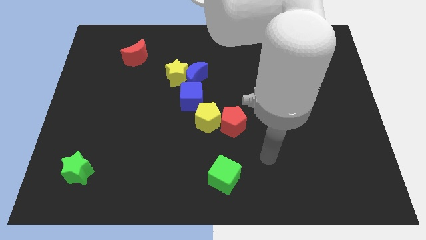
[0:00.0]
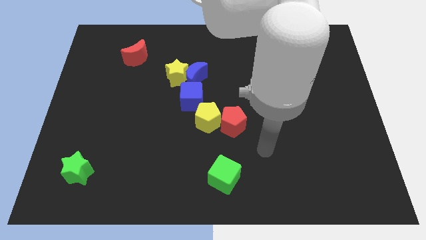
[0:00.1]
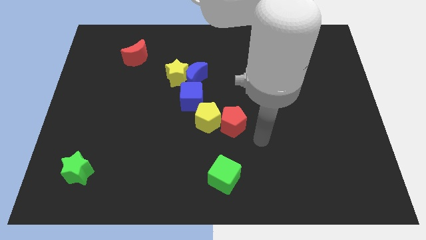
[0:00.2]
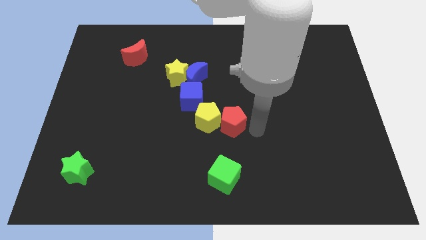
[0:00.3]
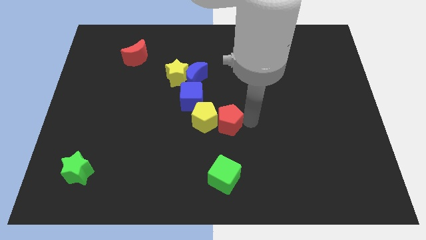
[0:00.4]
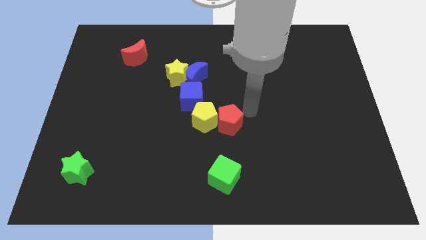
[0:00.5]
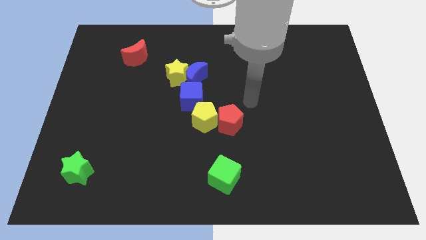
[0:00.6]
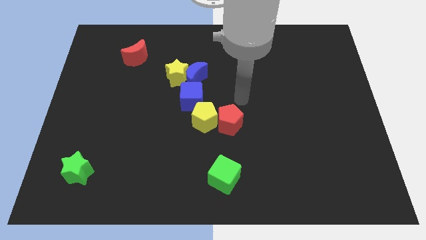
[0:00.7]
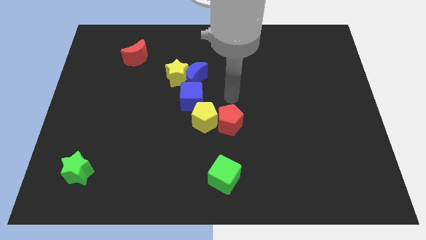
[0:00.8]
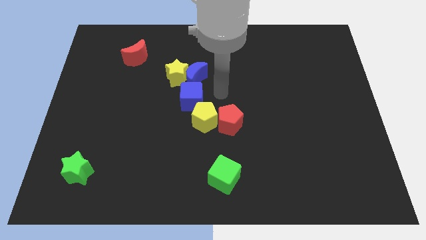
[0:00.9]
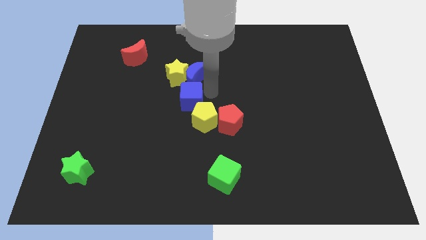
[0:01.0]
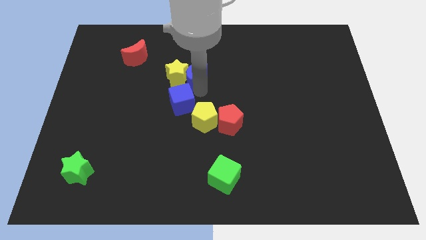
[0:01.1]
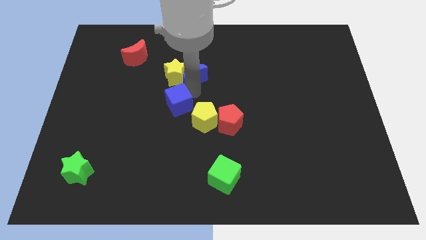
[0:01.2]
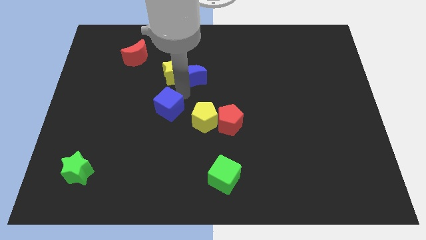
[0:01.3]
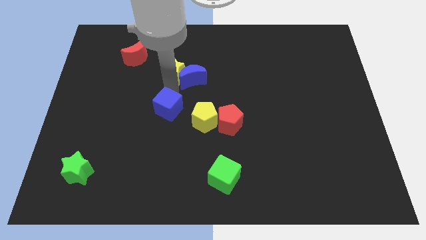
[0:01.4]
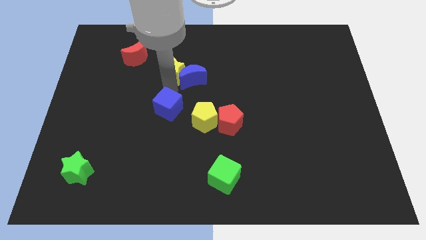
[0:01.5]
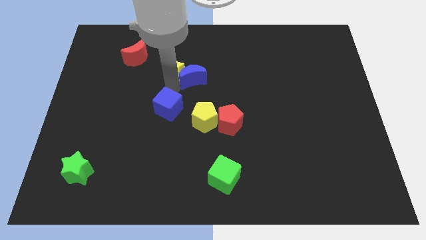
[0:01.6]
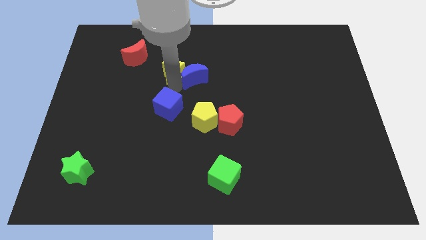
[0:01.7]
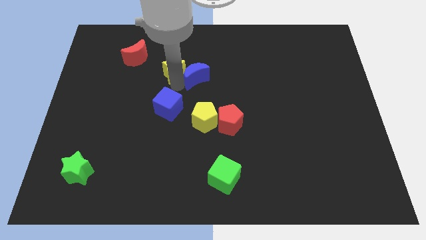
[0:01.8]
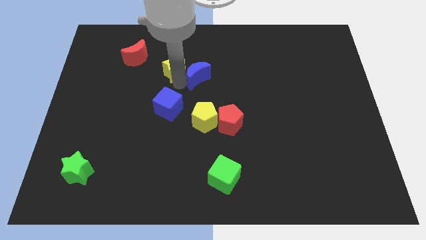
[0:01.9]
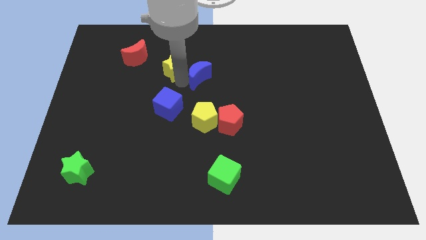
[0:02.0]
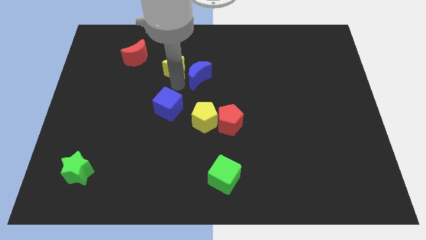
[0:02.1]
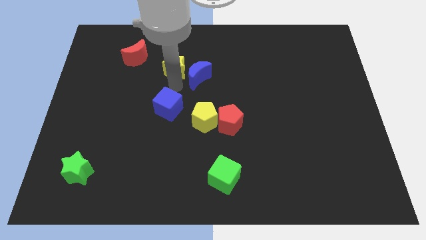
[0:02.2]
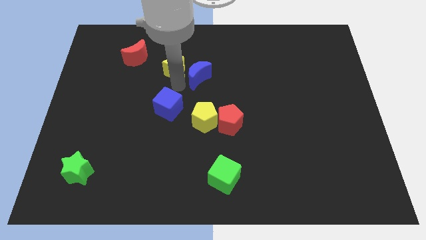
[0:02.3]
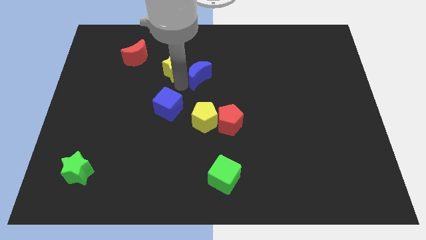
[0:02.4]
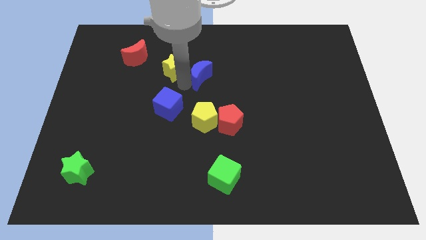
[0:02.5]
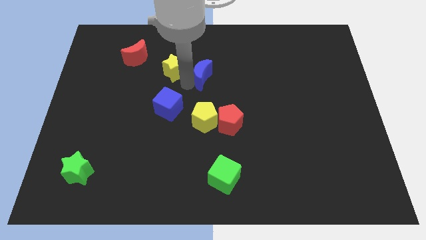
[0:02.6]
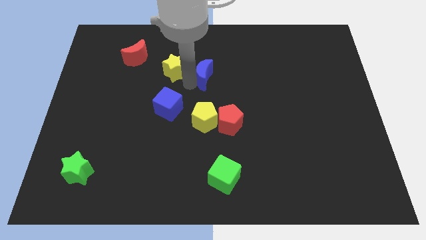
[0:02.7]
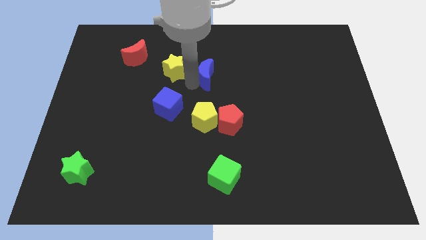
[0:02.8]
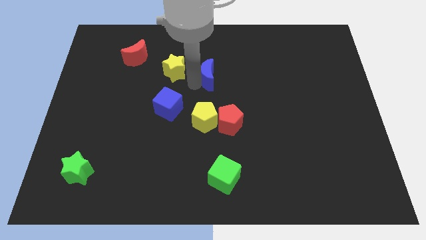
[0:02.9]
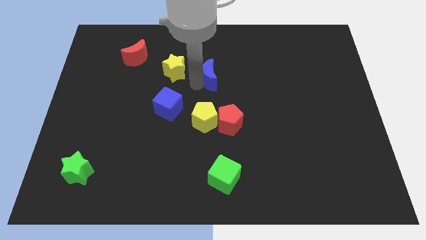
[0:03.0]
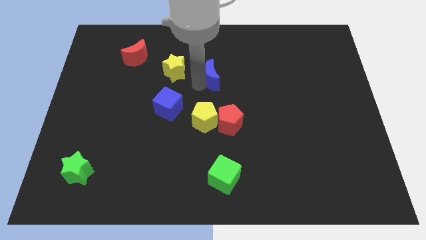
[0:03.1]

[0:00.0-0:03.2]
separate the blue moon from the yellow star and blue cube

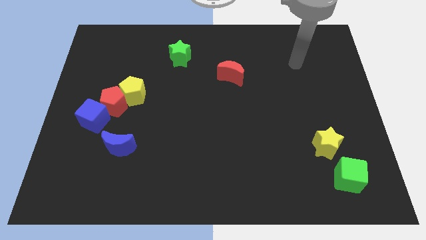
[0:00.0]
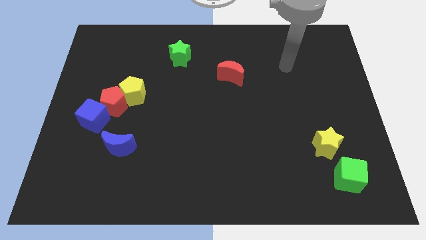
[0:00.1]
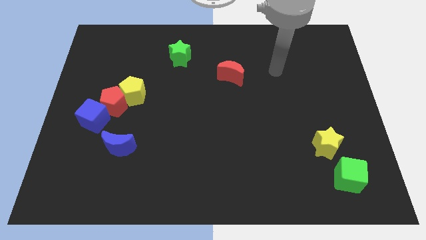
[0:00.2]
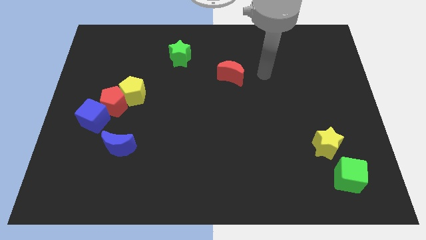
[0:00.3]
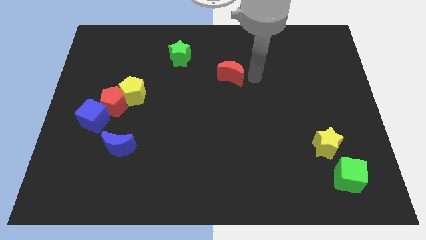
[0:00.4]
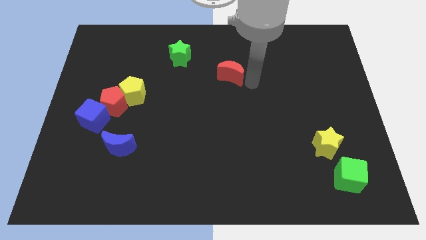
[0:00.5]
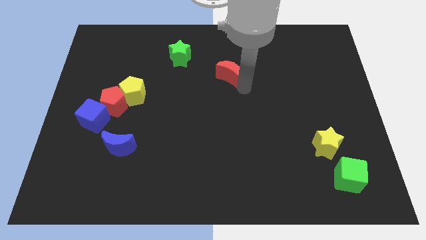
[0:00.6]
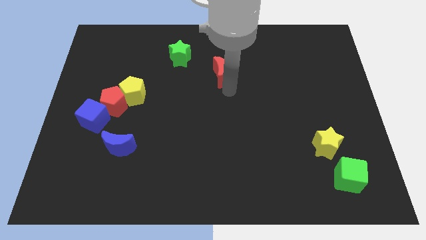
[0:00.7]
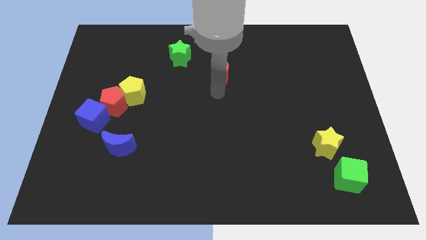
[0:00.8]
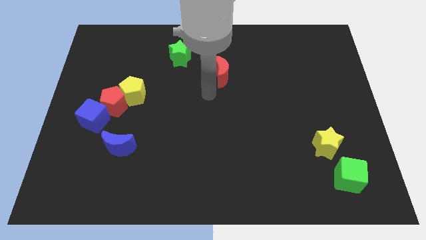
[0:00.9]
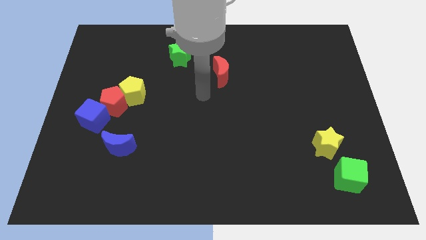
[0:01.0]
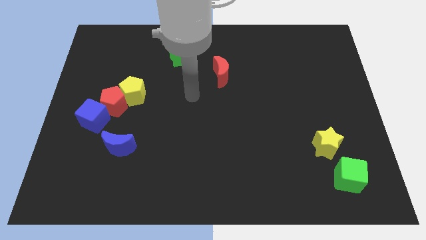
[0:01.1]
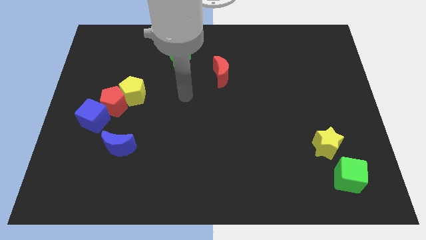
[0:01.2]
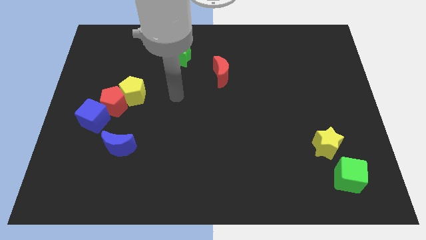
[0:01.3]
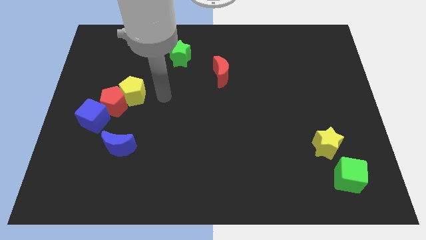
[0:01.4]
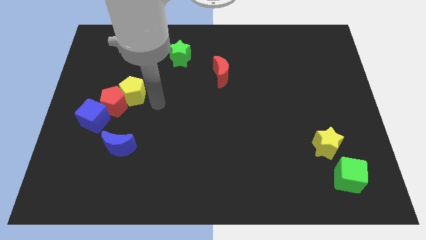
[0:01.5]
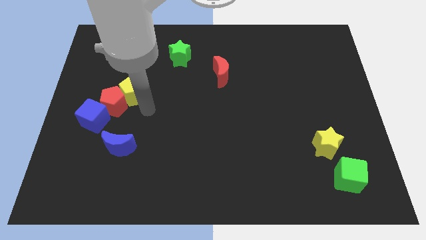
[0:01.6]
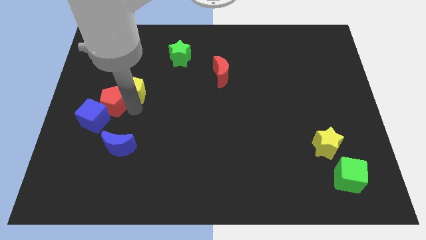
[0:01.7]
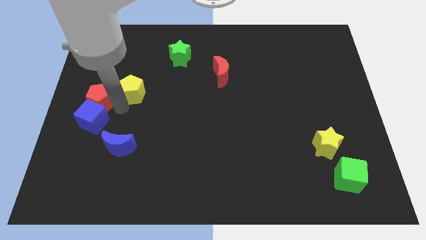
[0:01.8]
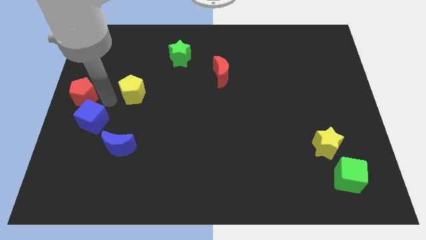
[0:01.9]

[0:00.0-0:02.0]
separate the yellow pentagon from the red pentagon

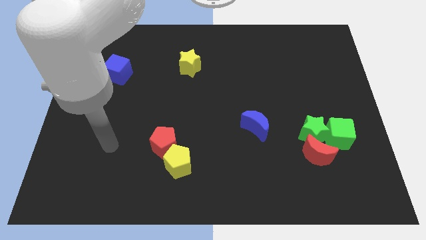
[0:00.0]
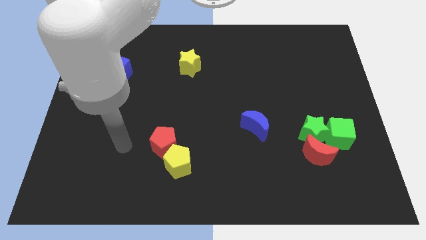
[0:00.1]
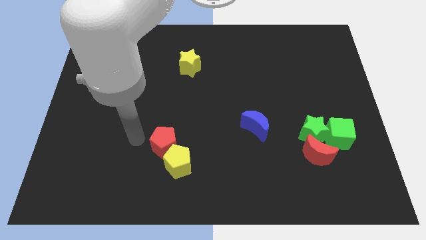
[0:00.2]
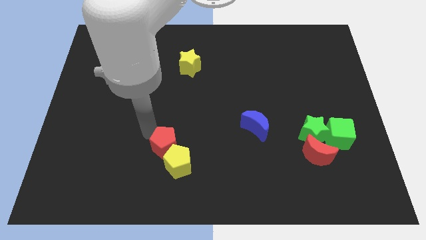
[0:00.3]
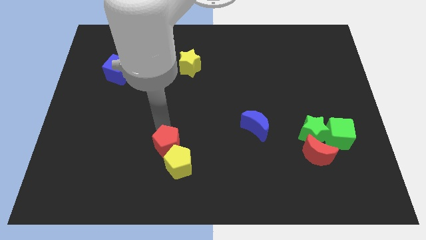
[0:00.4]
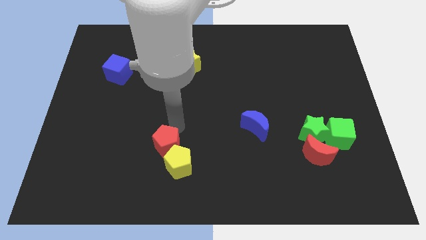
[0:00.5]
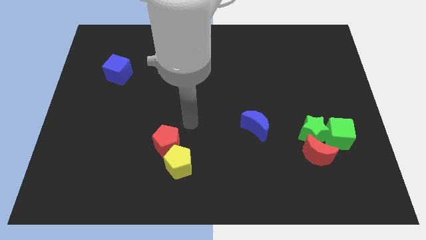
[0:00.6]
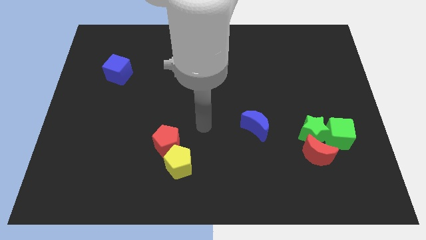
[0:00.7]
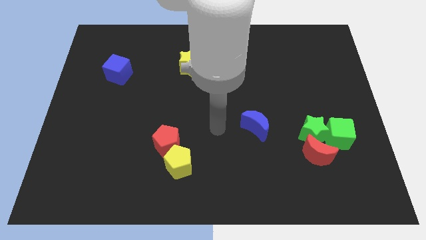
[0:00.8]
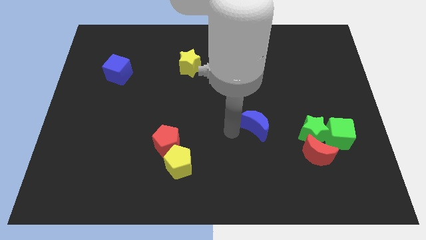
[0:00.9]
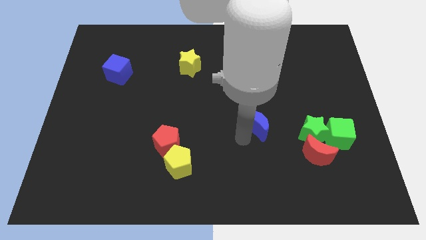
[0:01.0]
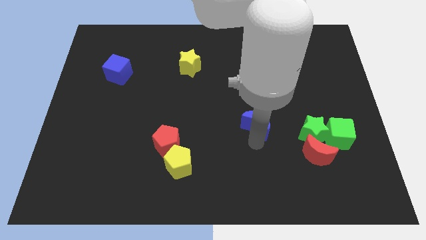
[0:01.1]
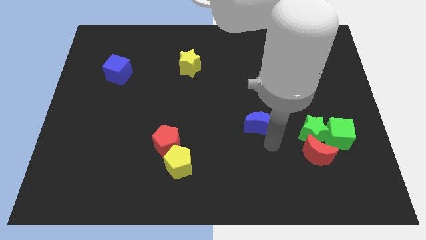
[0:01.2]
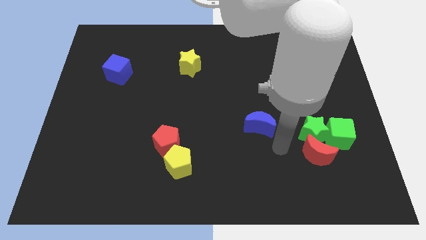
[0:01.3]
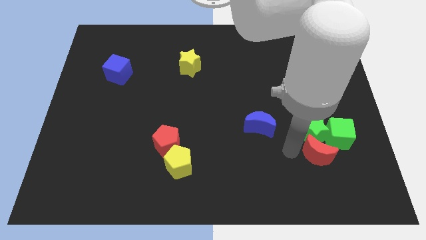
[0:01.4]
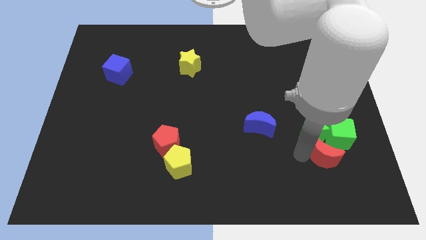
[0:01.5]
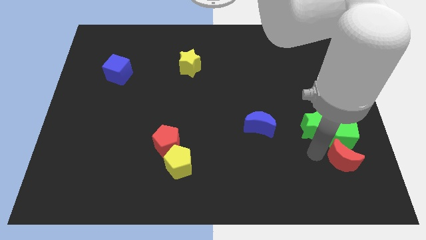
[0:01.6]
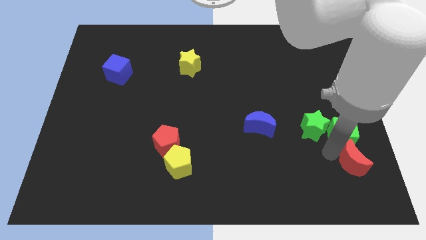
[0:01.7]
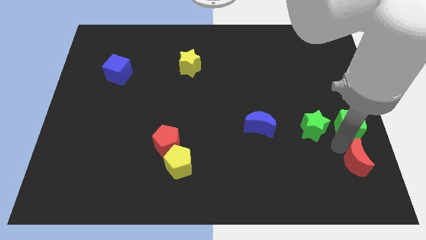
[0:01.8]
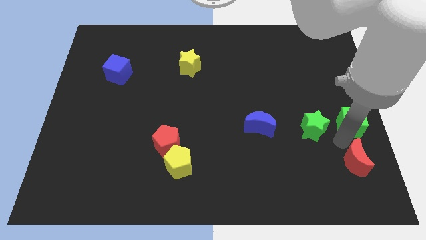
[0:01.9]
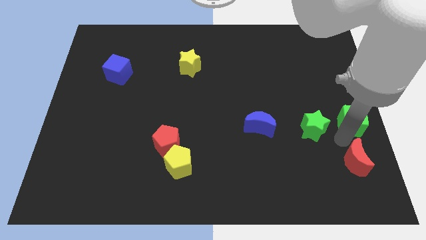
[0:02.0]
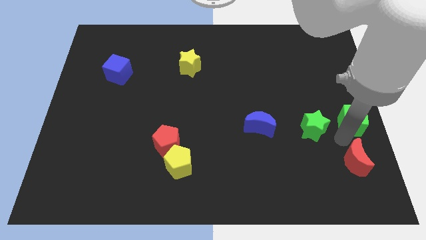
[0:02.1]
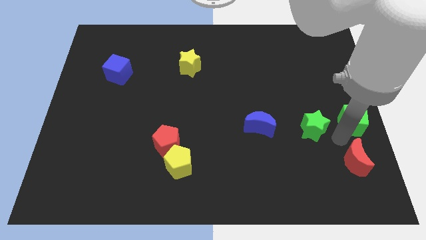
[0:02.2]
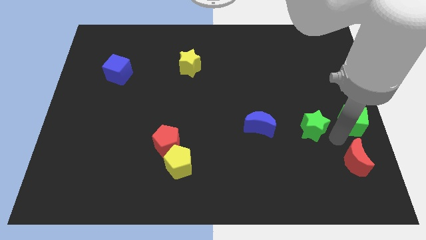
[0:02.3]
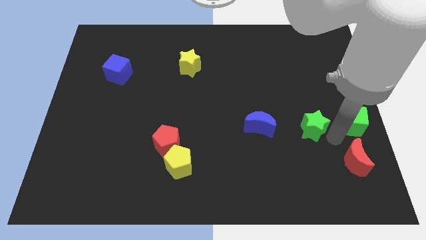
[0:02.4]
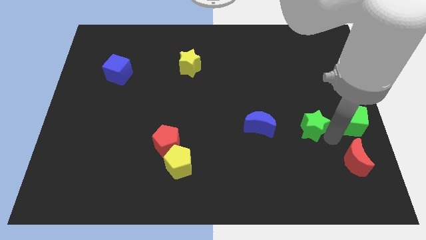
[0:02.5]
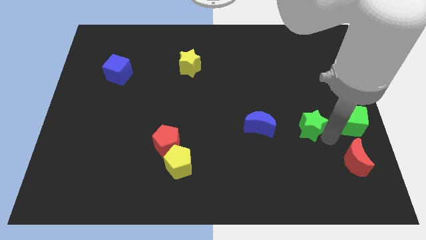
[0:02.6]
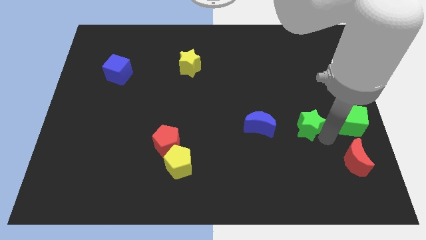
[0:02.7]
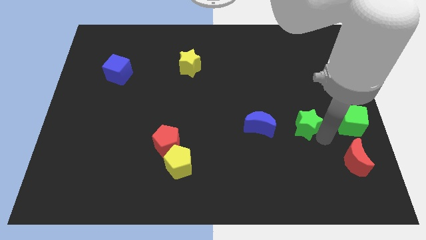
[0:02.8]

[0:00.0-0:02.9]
separate the green star from the red moon and green cube

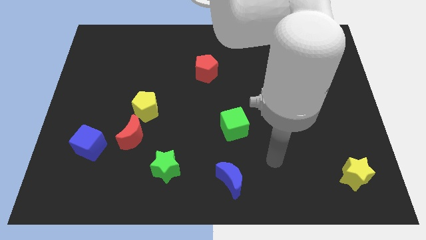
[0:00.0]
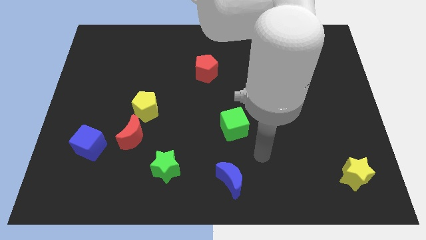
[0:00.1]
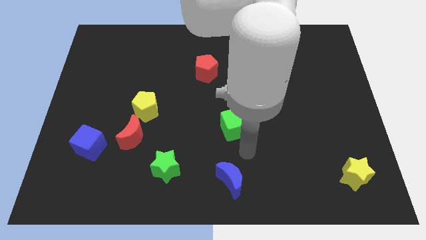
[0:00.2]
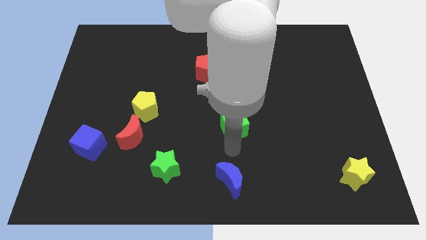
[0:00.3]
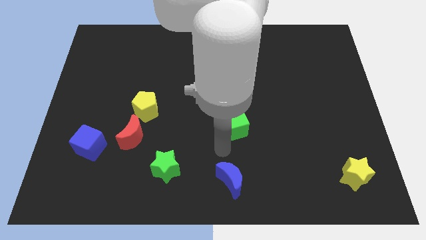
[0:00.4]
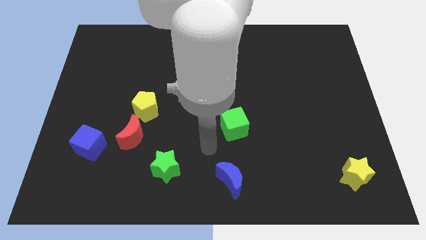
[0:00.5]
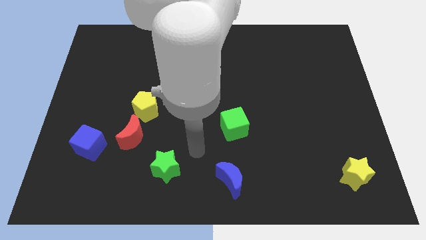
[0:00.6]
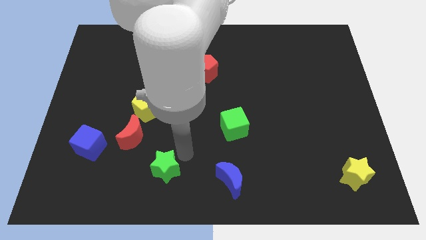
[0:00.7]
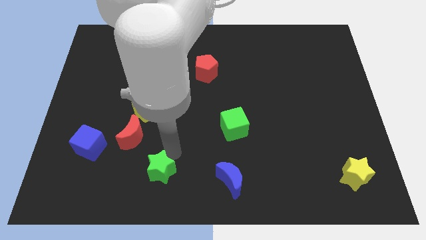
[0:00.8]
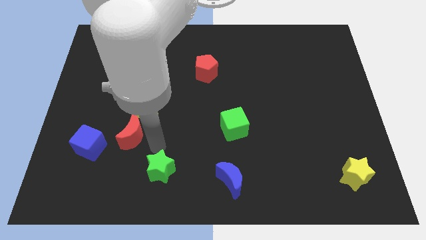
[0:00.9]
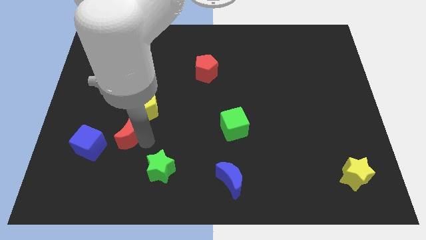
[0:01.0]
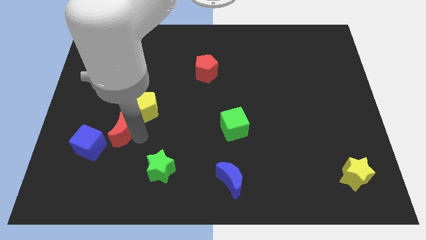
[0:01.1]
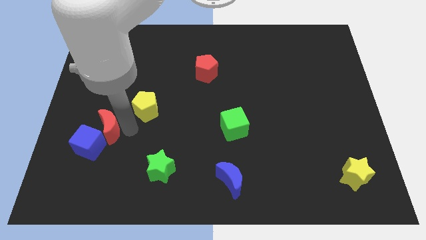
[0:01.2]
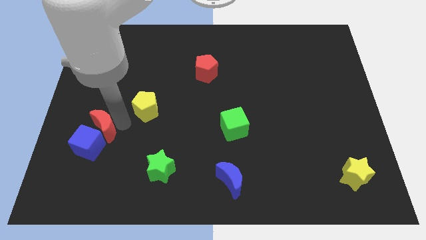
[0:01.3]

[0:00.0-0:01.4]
move the yellow pentagon away from the red moon
